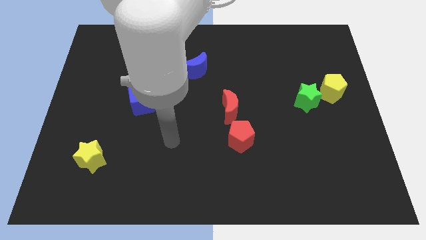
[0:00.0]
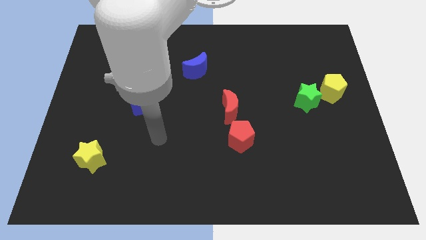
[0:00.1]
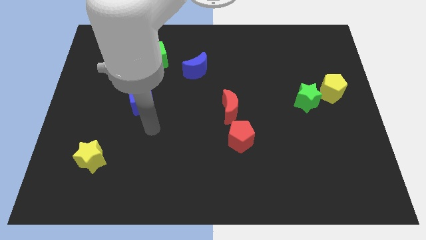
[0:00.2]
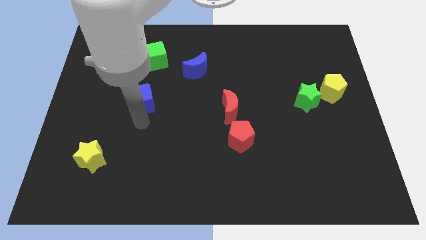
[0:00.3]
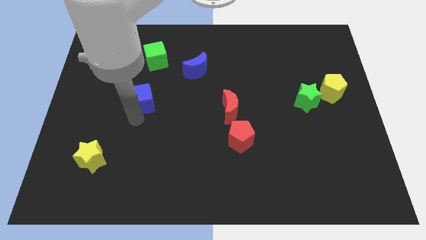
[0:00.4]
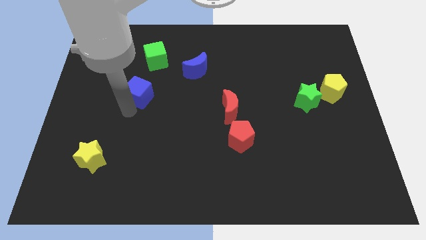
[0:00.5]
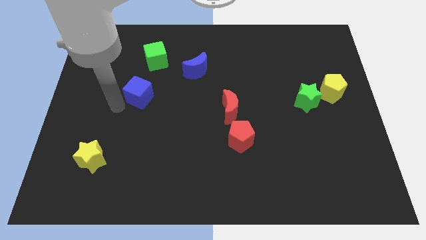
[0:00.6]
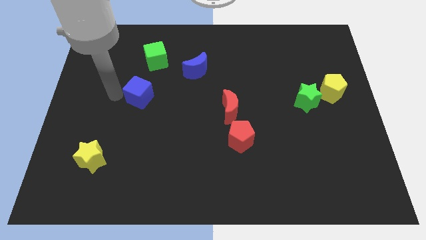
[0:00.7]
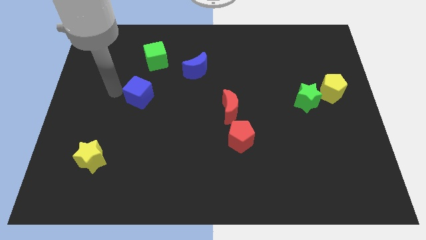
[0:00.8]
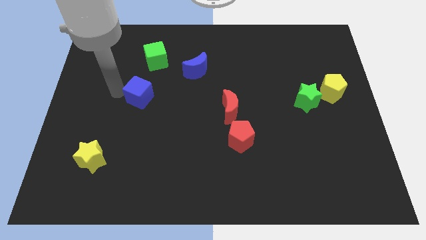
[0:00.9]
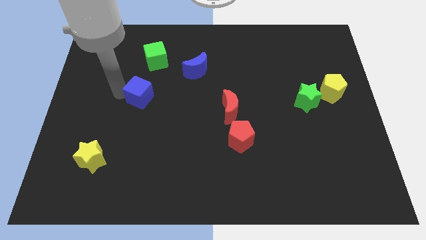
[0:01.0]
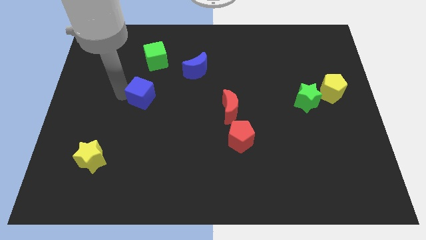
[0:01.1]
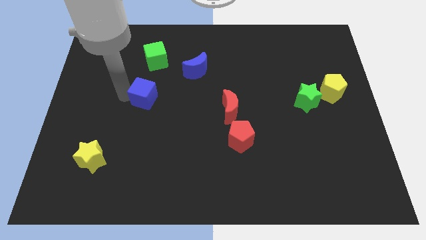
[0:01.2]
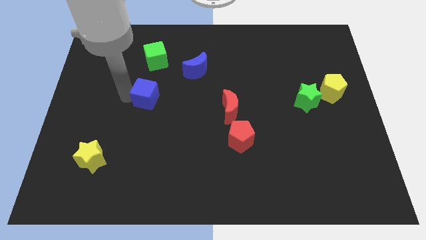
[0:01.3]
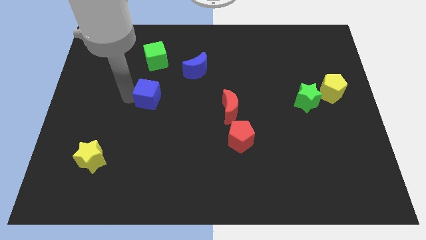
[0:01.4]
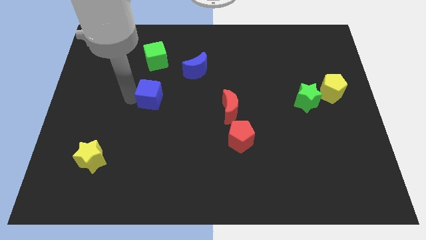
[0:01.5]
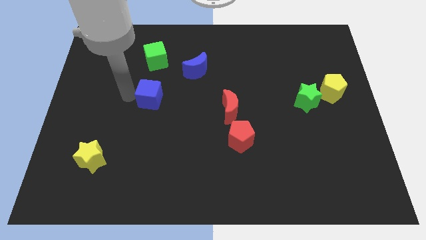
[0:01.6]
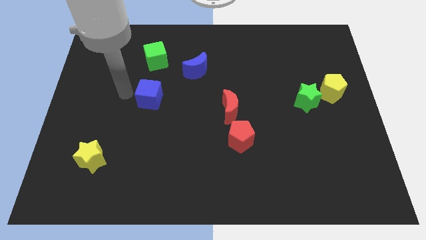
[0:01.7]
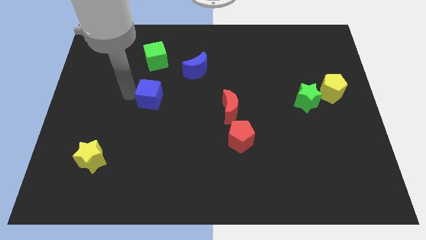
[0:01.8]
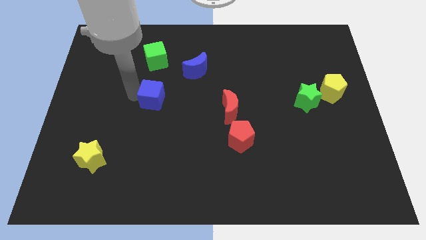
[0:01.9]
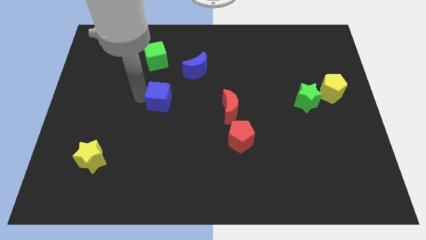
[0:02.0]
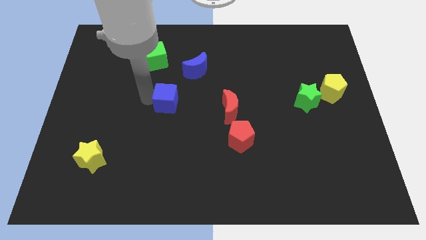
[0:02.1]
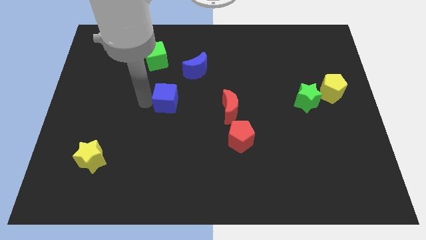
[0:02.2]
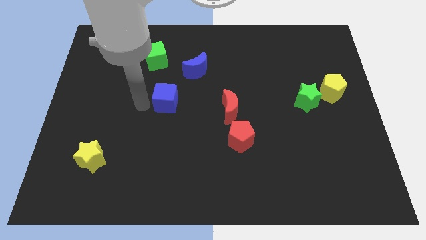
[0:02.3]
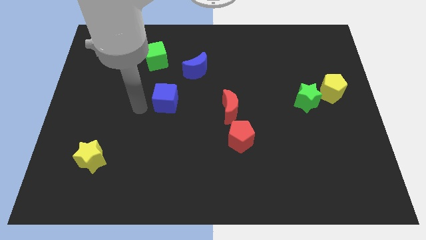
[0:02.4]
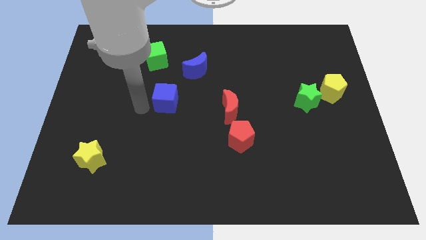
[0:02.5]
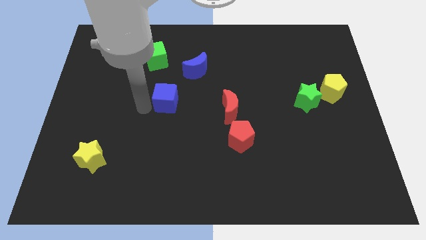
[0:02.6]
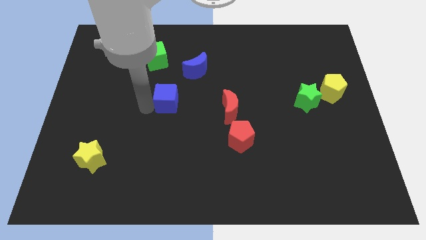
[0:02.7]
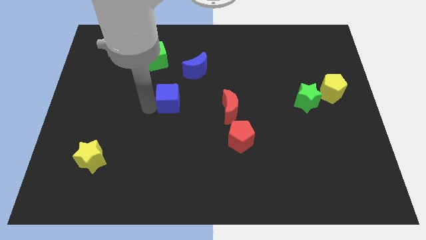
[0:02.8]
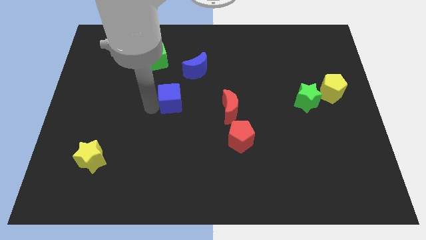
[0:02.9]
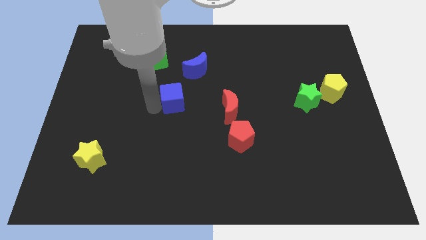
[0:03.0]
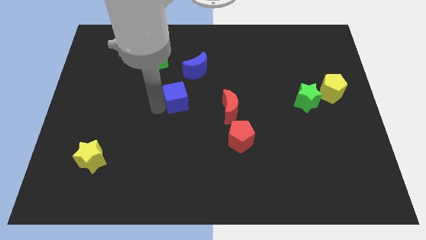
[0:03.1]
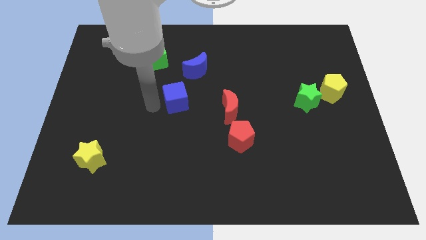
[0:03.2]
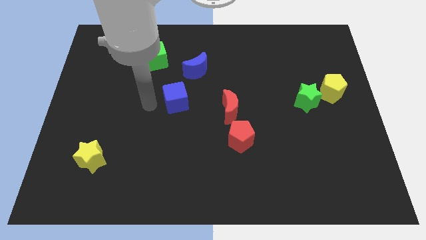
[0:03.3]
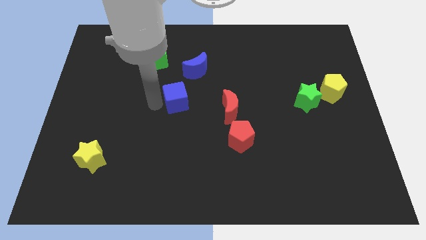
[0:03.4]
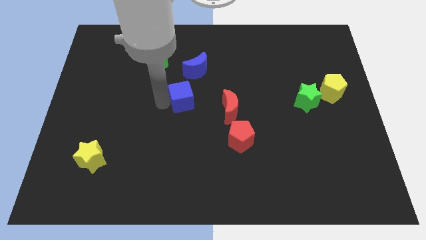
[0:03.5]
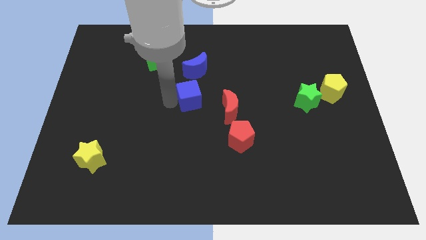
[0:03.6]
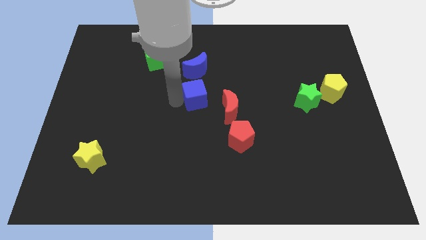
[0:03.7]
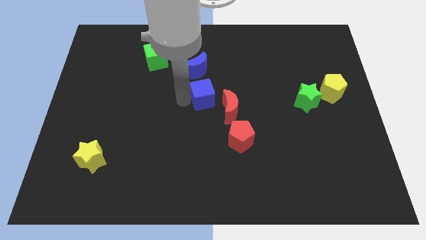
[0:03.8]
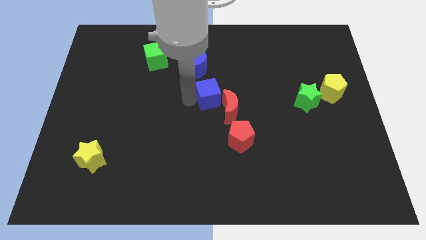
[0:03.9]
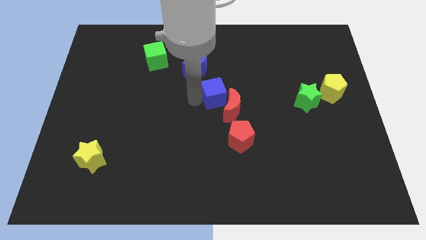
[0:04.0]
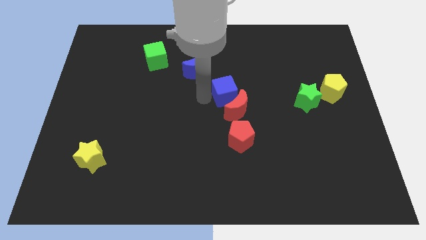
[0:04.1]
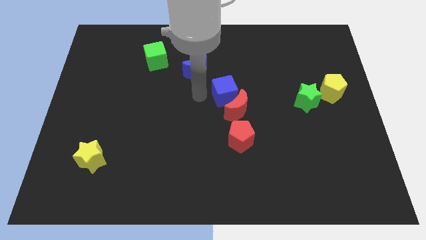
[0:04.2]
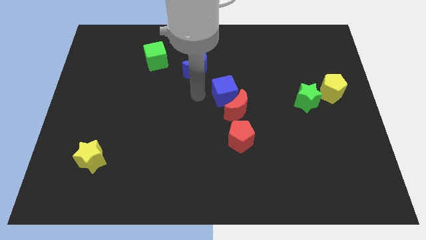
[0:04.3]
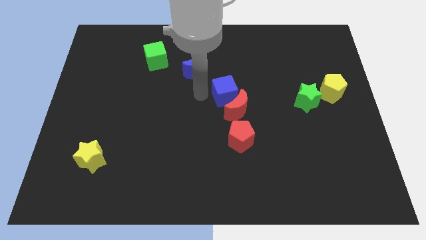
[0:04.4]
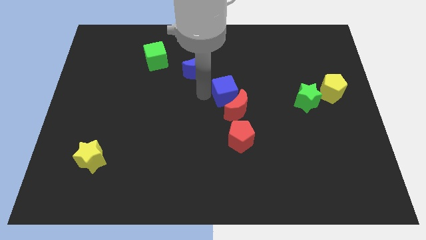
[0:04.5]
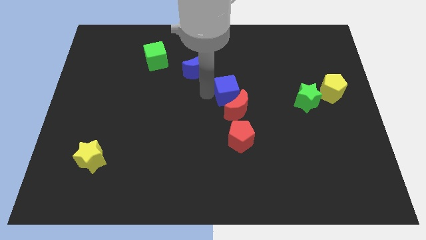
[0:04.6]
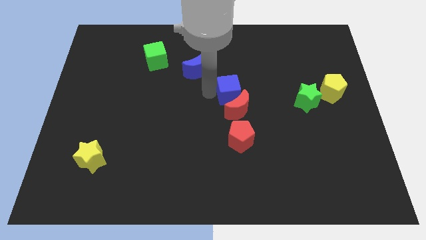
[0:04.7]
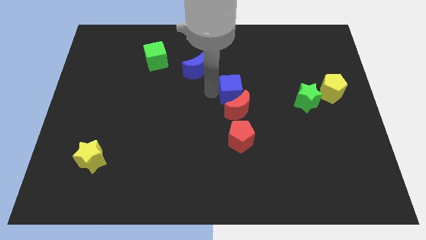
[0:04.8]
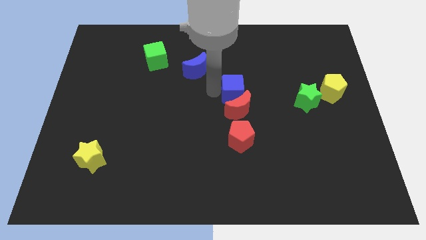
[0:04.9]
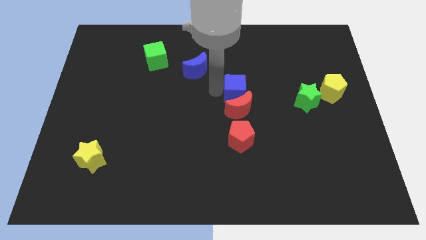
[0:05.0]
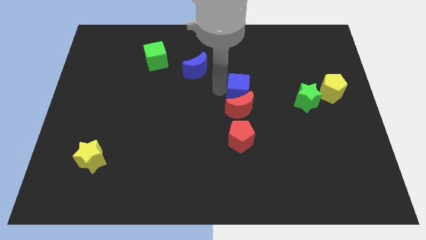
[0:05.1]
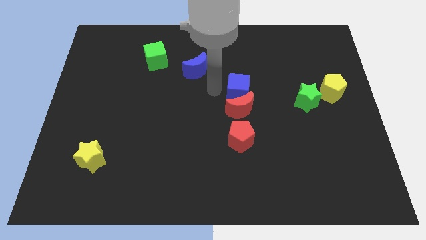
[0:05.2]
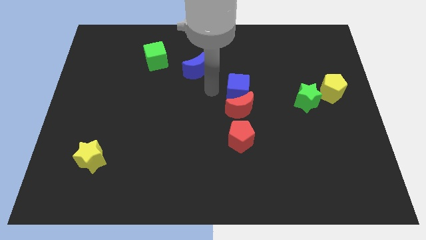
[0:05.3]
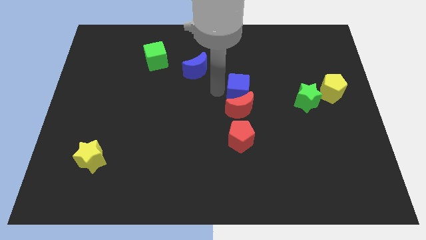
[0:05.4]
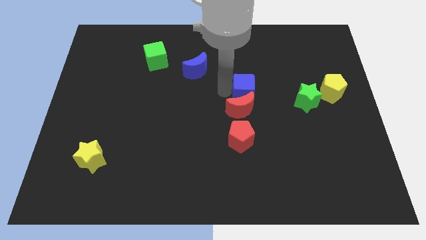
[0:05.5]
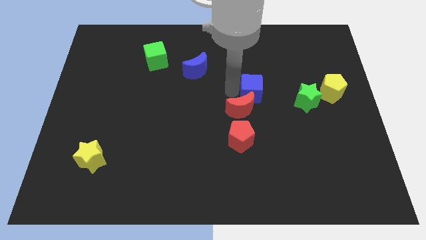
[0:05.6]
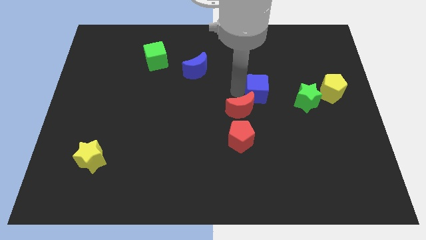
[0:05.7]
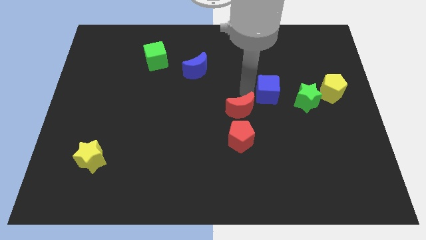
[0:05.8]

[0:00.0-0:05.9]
slide the blue cube just left of the yellow pentagon

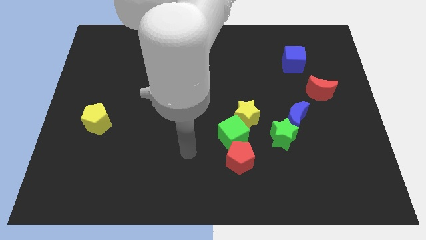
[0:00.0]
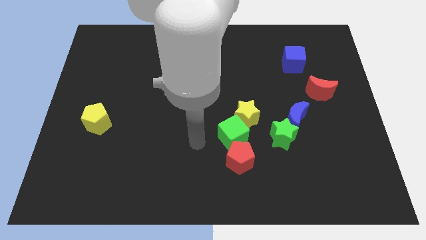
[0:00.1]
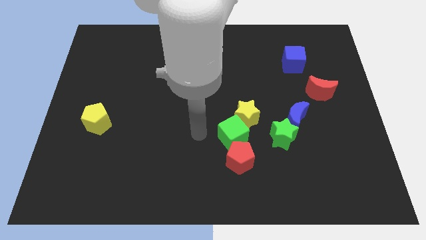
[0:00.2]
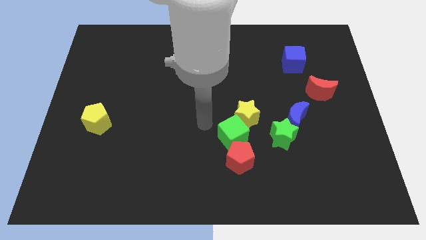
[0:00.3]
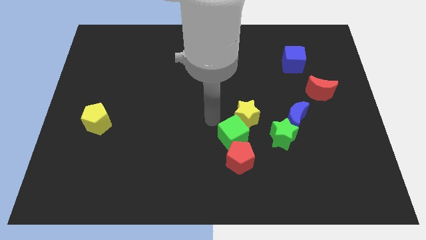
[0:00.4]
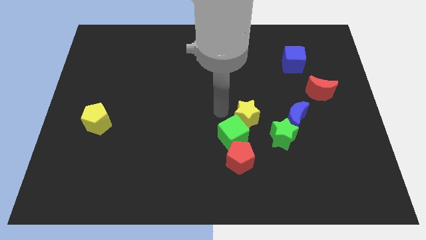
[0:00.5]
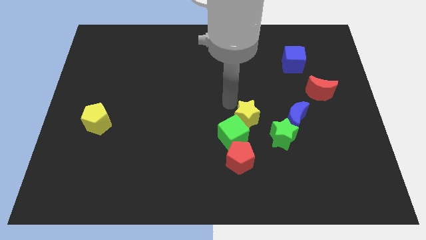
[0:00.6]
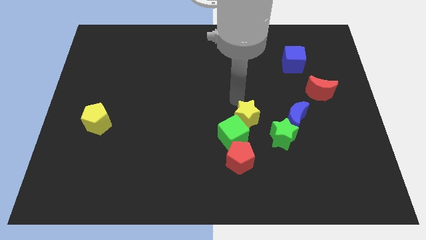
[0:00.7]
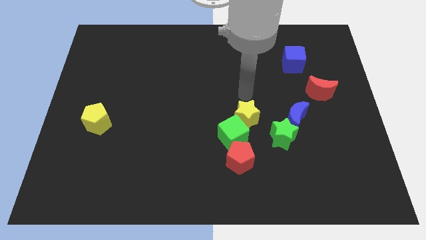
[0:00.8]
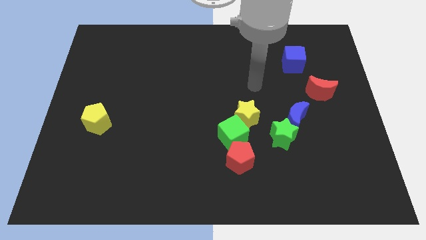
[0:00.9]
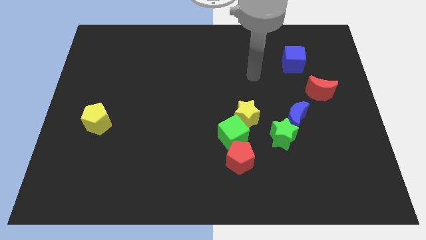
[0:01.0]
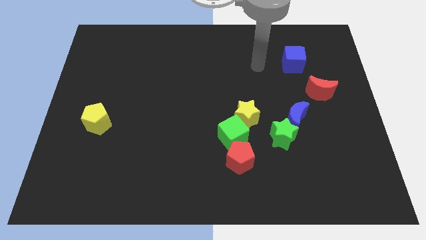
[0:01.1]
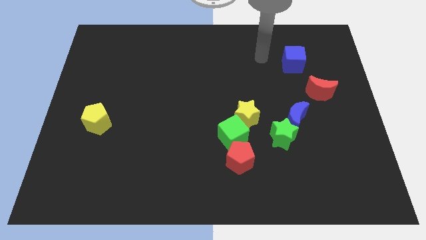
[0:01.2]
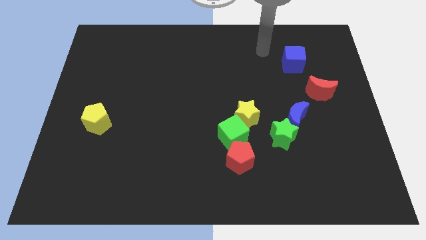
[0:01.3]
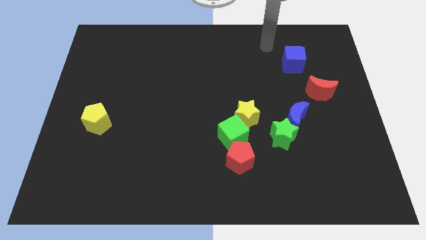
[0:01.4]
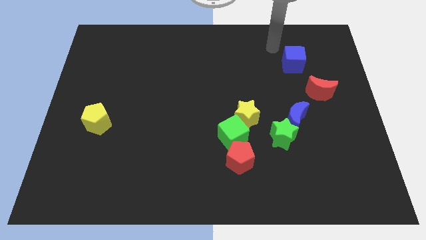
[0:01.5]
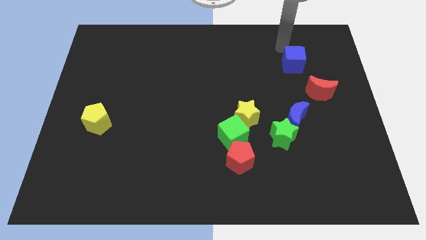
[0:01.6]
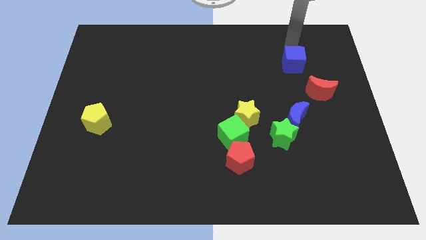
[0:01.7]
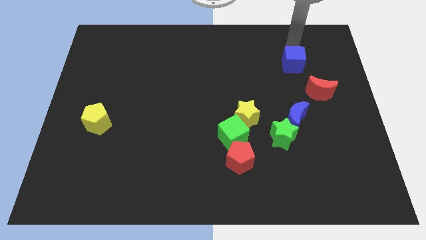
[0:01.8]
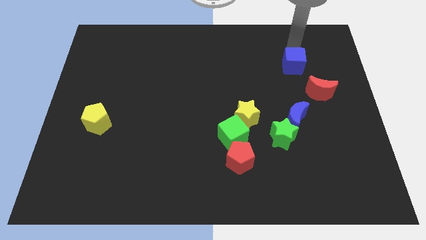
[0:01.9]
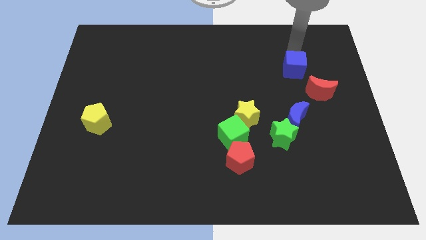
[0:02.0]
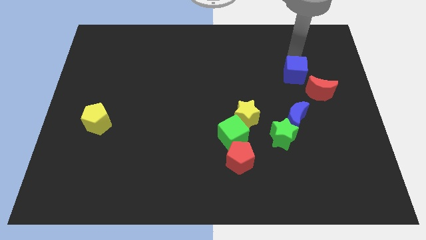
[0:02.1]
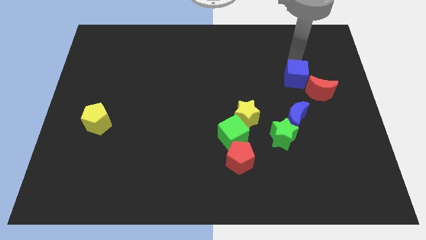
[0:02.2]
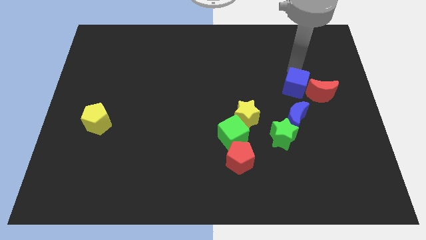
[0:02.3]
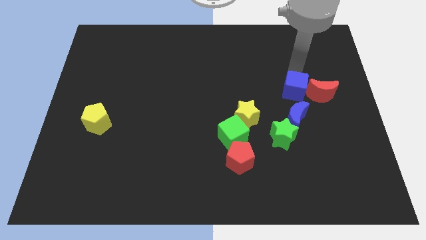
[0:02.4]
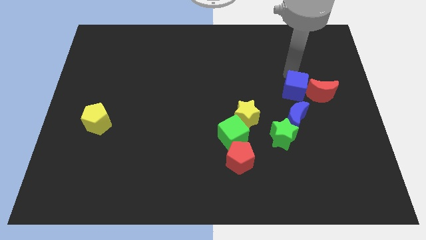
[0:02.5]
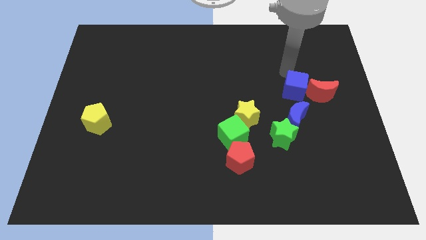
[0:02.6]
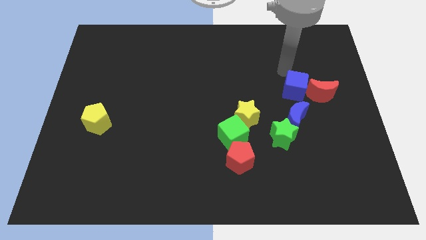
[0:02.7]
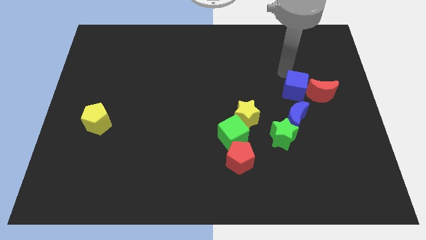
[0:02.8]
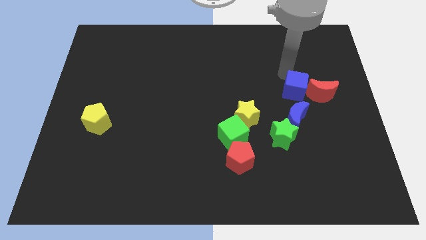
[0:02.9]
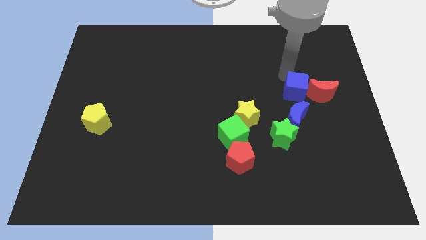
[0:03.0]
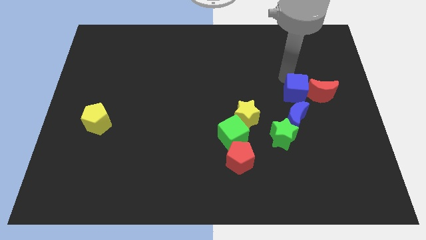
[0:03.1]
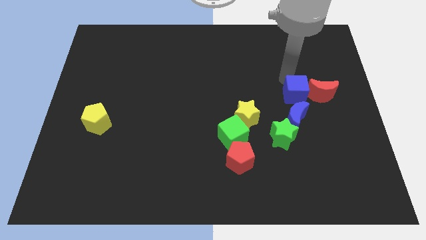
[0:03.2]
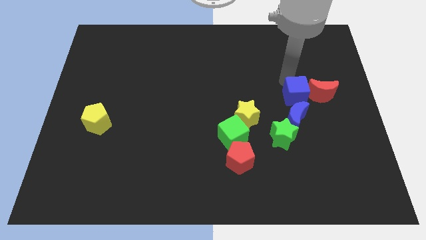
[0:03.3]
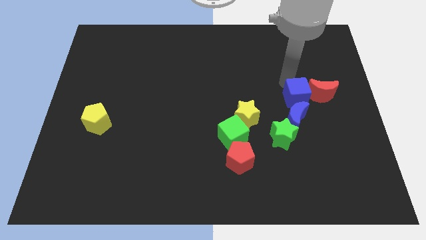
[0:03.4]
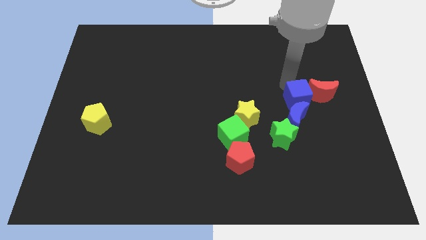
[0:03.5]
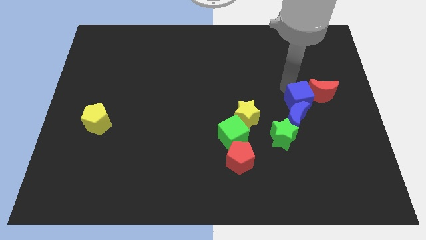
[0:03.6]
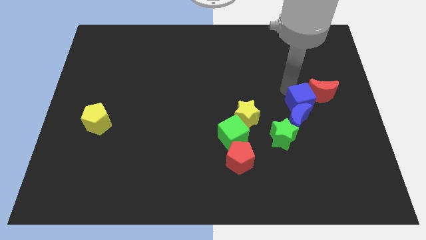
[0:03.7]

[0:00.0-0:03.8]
push the blue cube to the right of the yellow star
